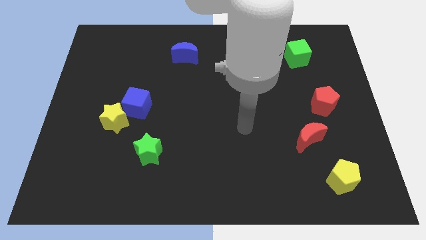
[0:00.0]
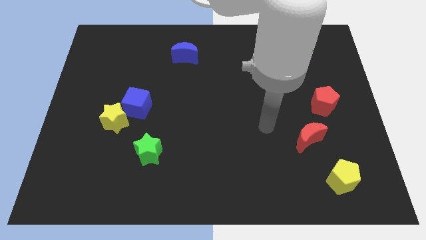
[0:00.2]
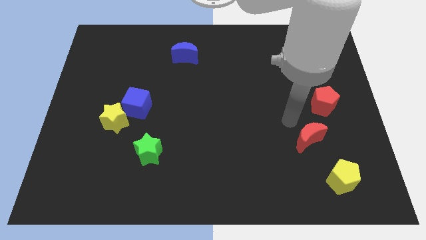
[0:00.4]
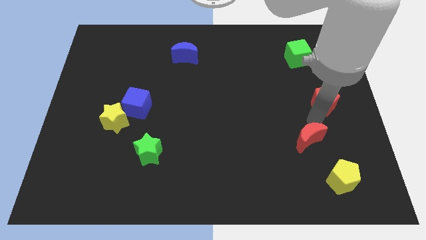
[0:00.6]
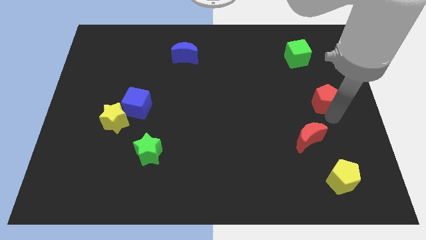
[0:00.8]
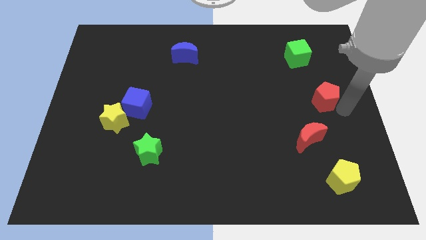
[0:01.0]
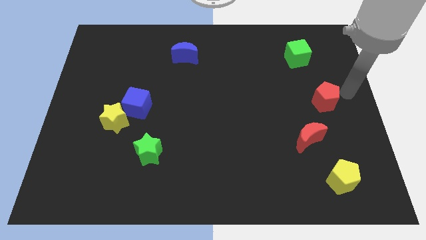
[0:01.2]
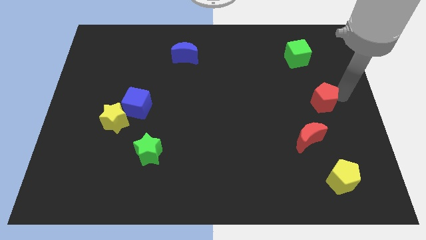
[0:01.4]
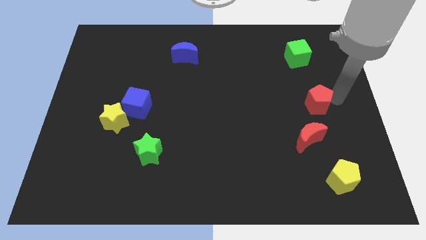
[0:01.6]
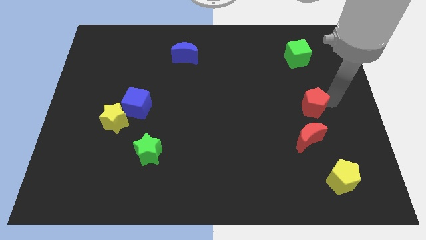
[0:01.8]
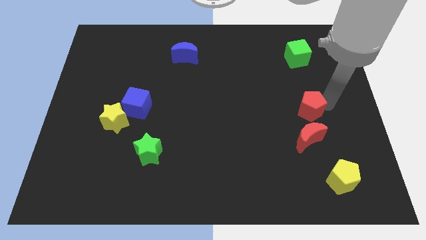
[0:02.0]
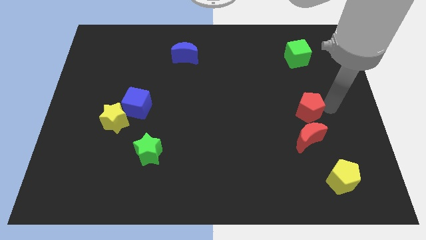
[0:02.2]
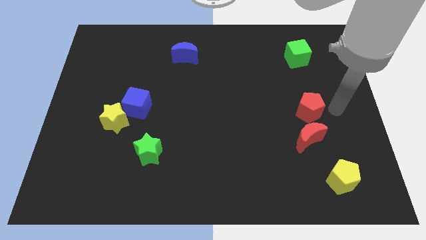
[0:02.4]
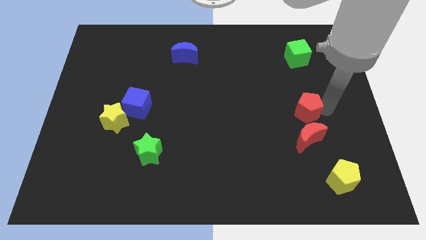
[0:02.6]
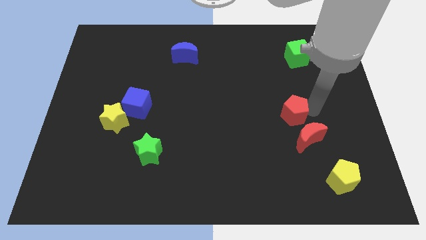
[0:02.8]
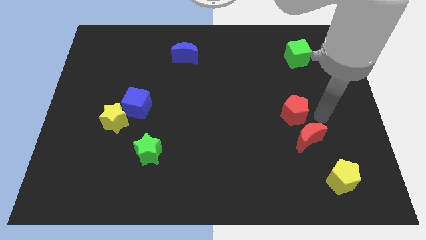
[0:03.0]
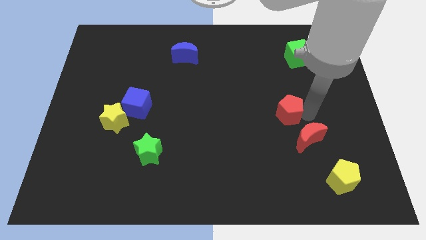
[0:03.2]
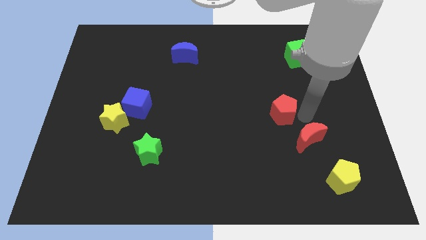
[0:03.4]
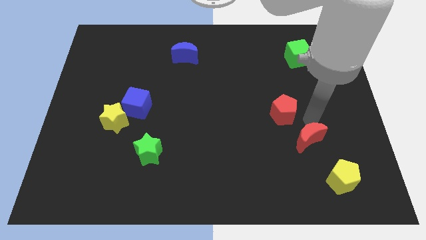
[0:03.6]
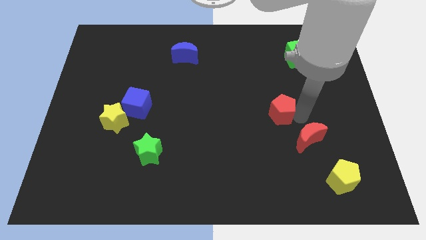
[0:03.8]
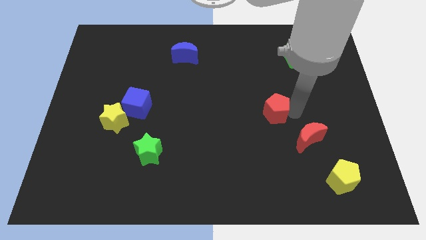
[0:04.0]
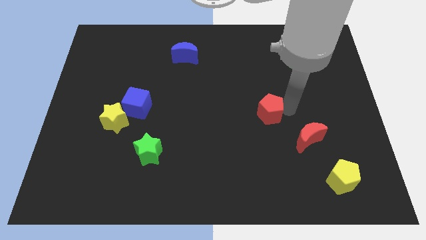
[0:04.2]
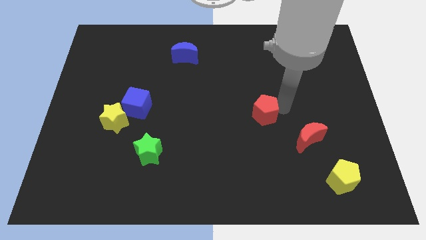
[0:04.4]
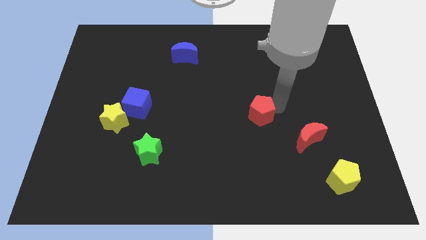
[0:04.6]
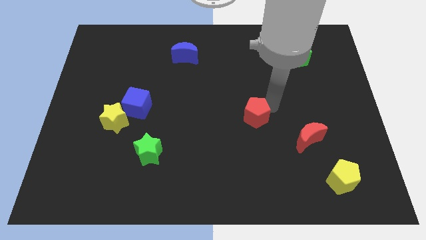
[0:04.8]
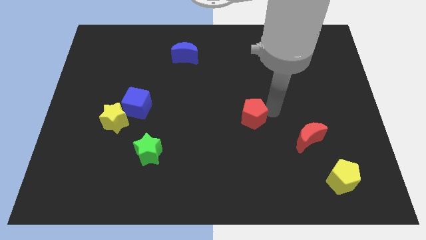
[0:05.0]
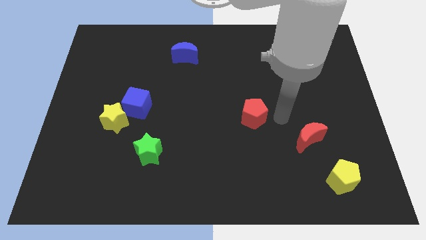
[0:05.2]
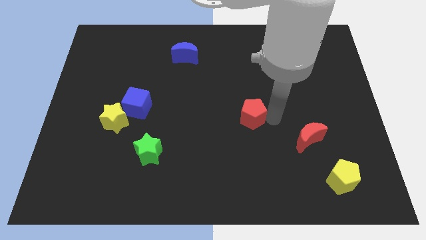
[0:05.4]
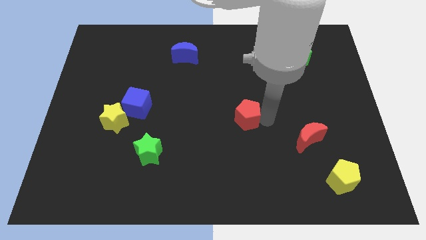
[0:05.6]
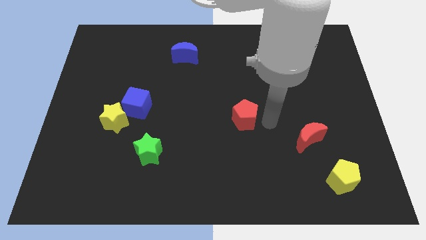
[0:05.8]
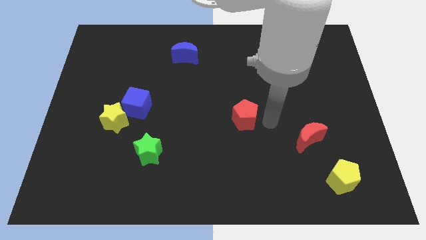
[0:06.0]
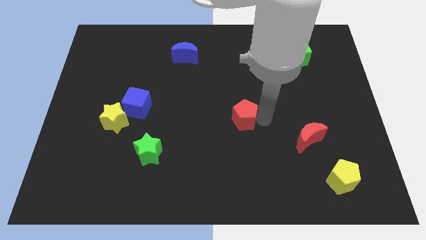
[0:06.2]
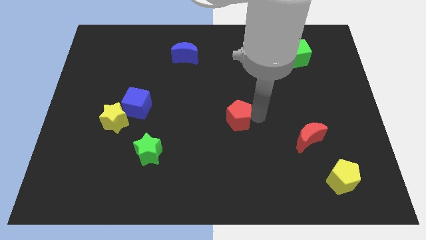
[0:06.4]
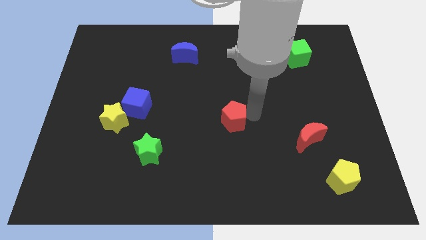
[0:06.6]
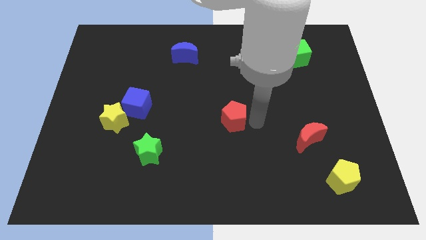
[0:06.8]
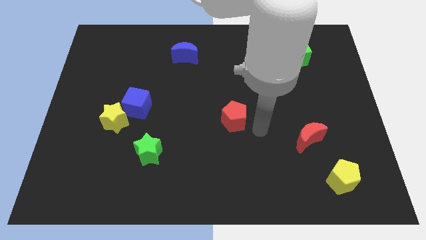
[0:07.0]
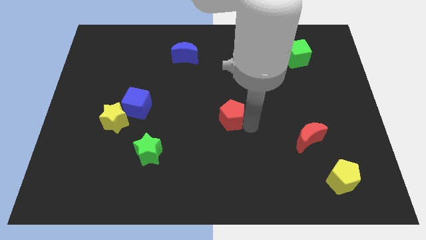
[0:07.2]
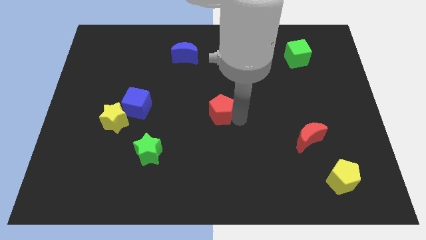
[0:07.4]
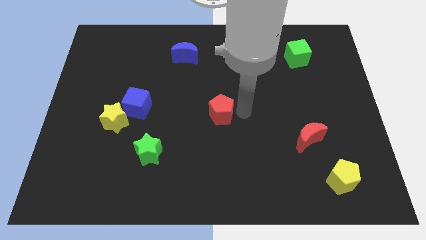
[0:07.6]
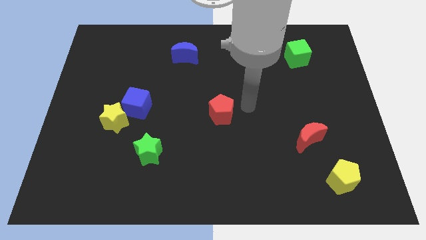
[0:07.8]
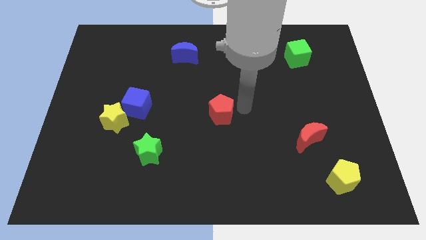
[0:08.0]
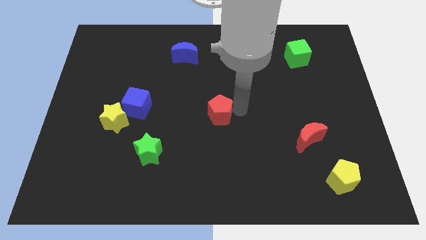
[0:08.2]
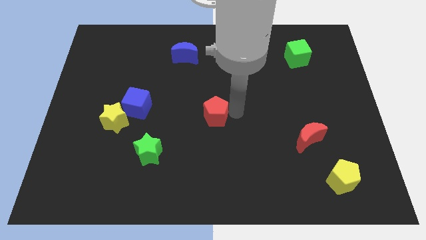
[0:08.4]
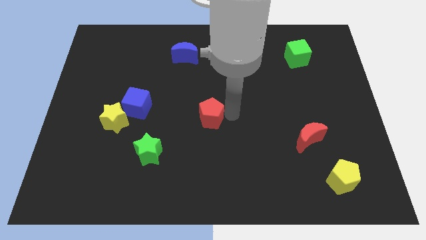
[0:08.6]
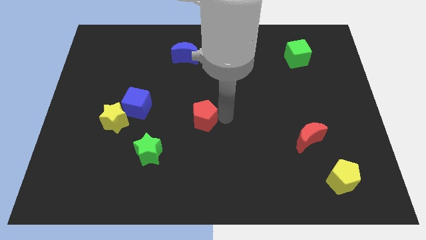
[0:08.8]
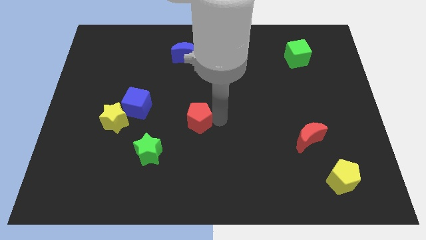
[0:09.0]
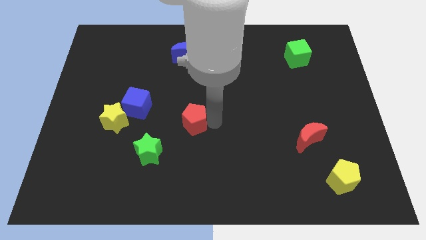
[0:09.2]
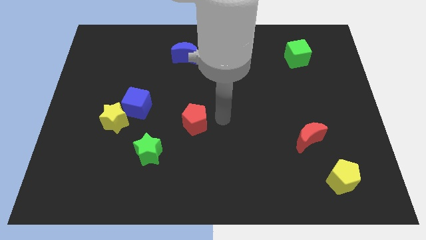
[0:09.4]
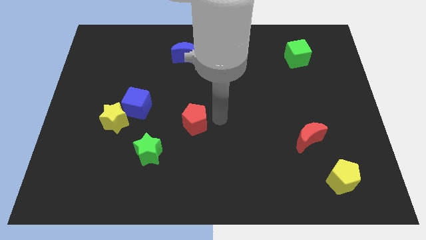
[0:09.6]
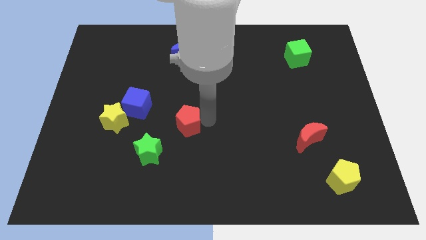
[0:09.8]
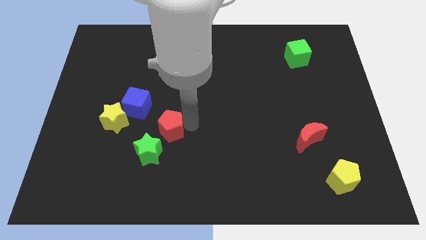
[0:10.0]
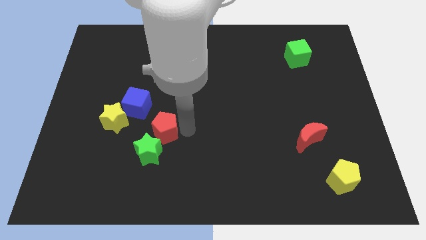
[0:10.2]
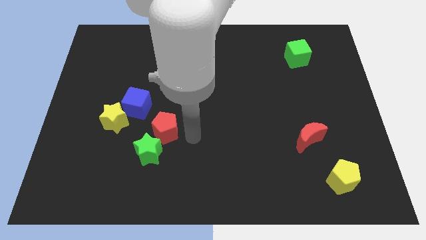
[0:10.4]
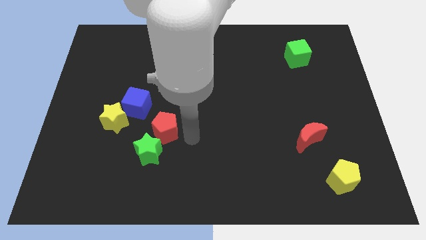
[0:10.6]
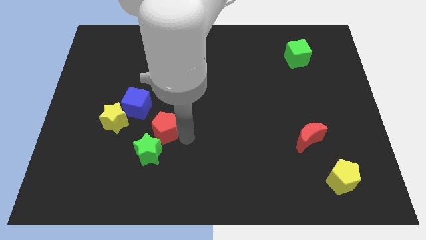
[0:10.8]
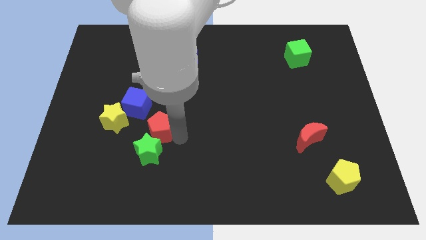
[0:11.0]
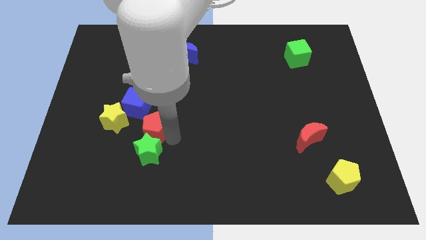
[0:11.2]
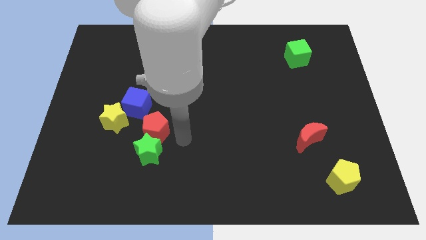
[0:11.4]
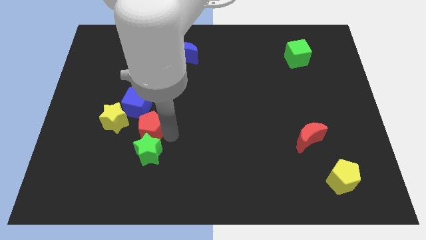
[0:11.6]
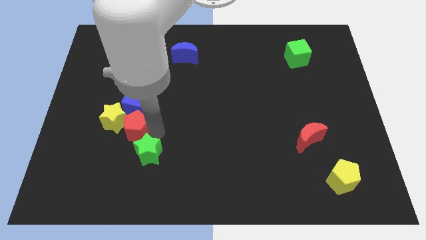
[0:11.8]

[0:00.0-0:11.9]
put the red pentagon towards the yellow star

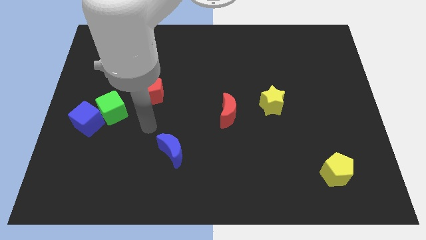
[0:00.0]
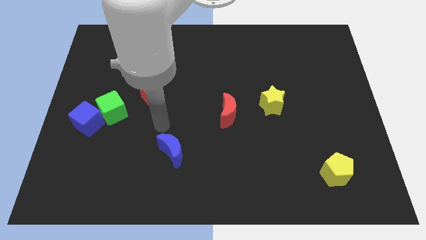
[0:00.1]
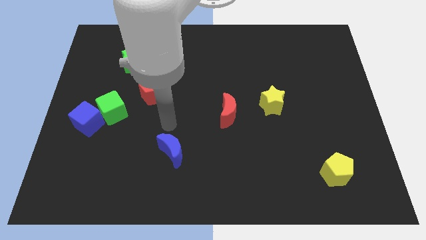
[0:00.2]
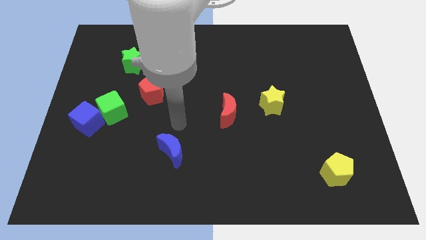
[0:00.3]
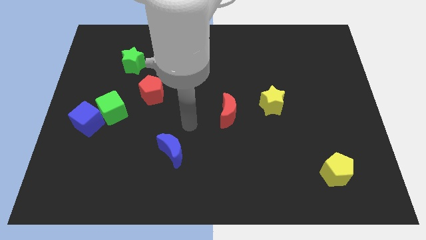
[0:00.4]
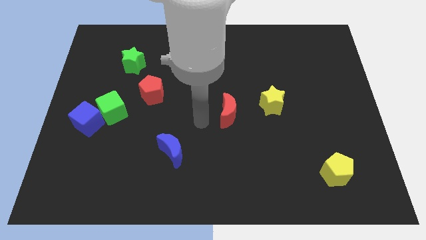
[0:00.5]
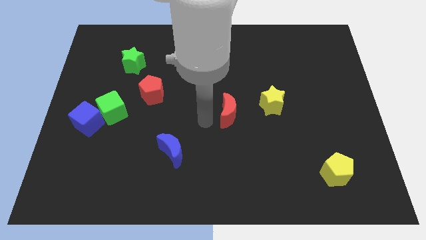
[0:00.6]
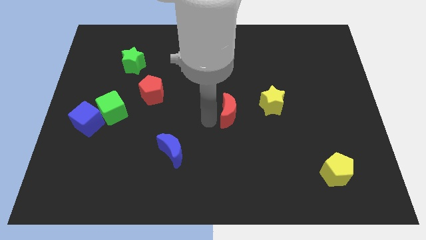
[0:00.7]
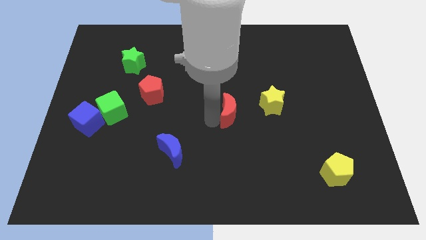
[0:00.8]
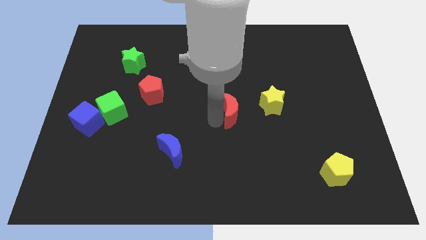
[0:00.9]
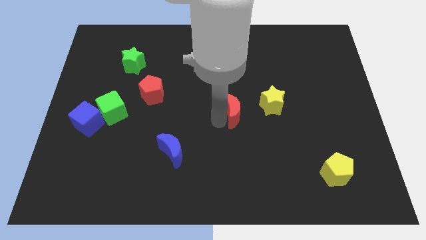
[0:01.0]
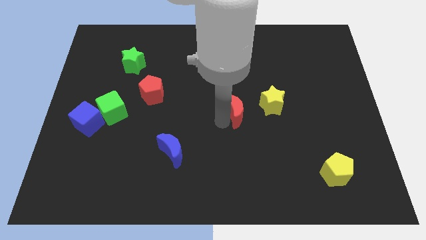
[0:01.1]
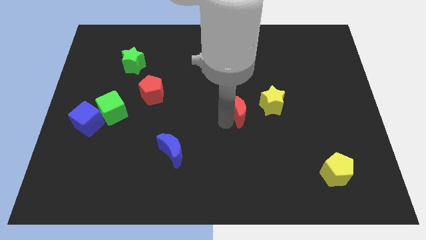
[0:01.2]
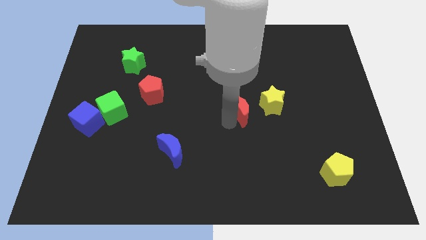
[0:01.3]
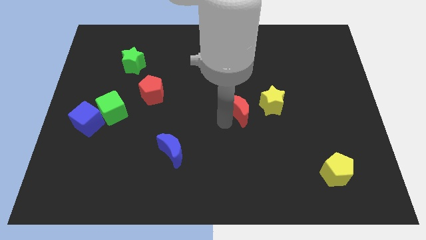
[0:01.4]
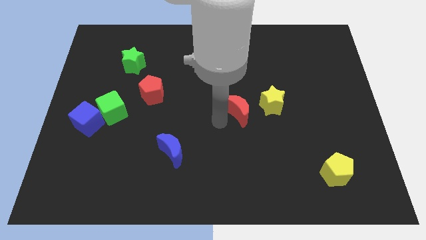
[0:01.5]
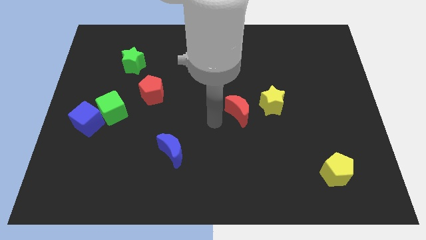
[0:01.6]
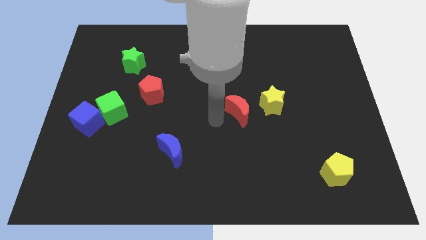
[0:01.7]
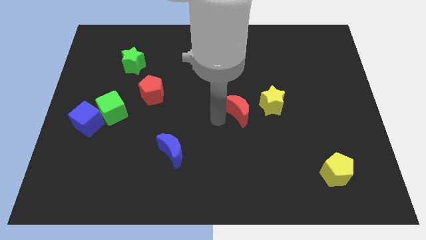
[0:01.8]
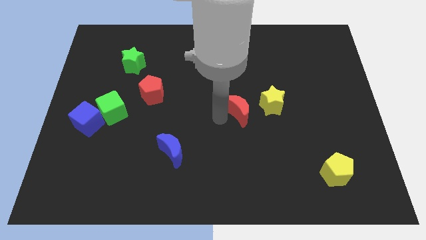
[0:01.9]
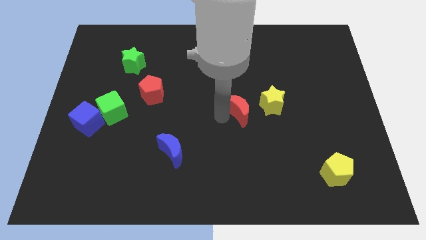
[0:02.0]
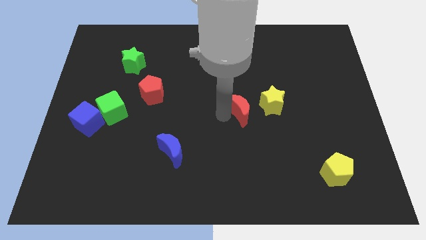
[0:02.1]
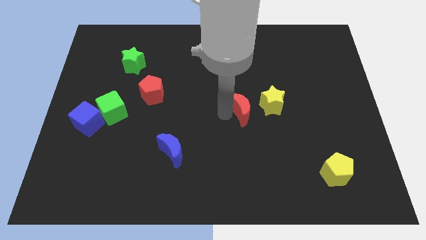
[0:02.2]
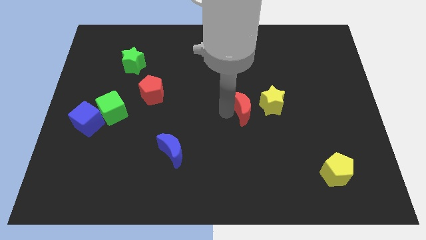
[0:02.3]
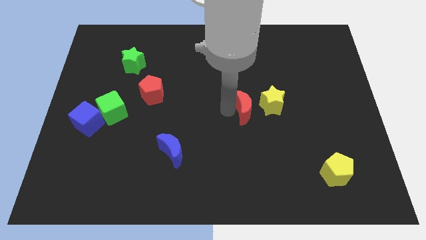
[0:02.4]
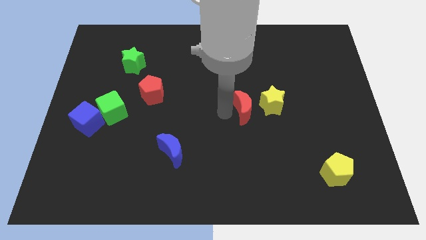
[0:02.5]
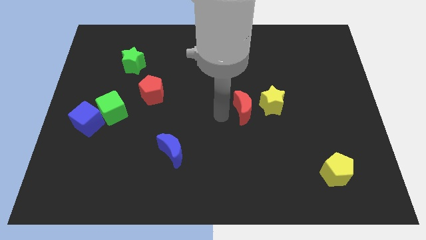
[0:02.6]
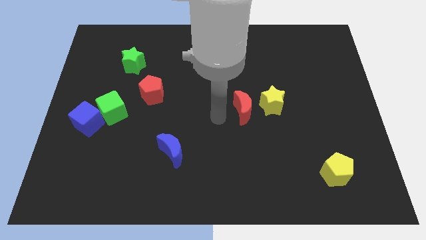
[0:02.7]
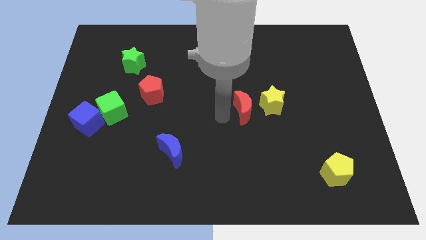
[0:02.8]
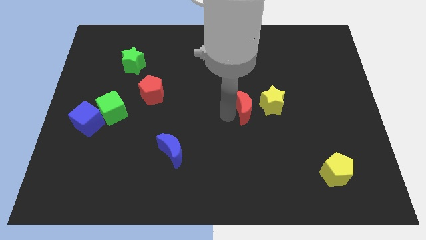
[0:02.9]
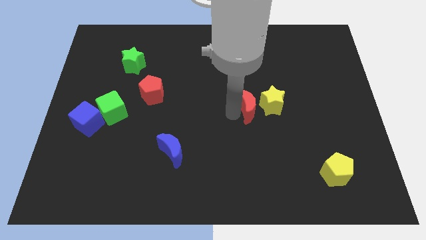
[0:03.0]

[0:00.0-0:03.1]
slide the red moon towards the yellow star
